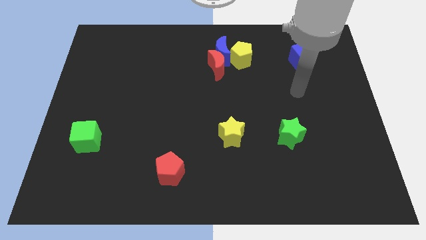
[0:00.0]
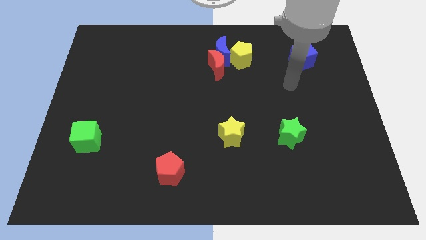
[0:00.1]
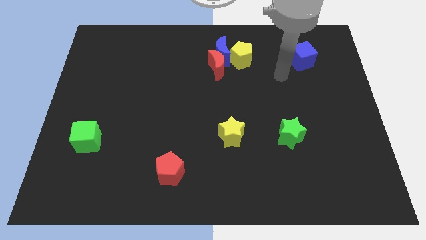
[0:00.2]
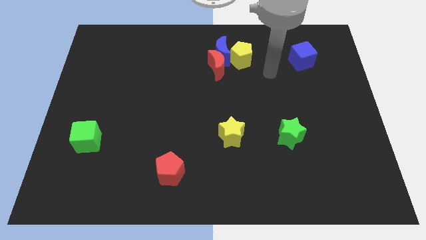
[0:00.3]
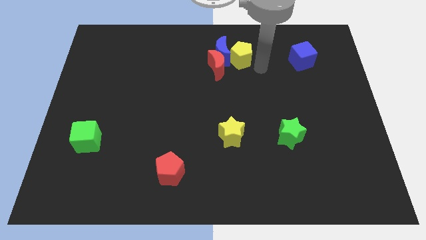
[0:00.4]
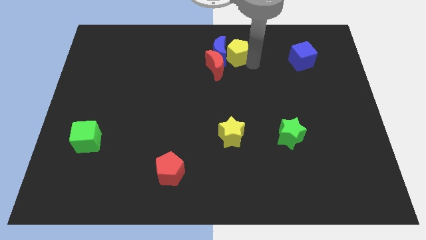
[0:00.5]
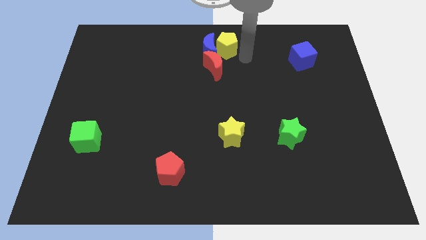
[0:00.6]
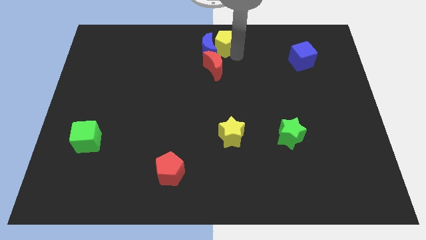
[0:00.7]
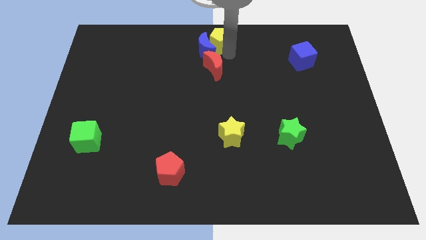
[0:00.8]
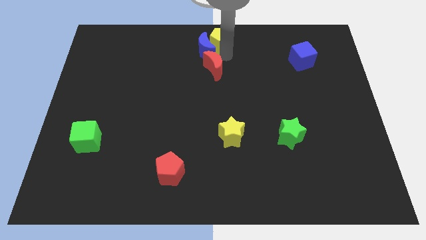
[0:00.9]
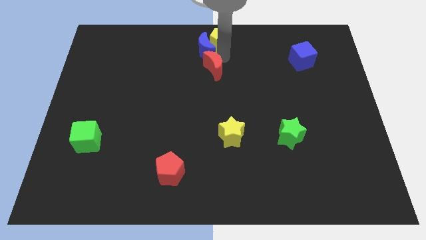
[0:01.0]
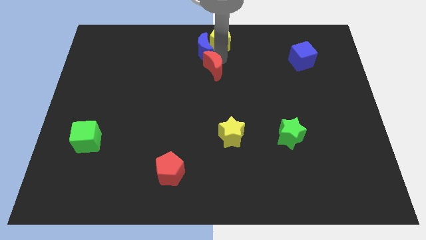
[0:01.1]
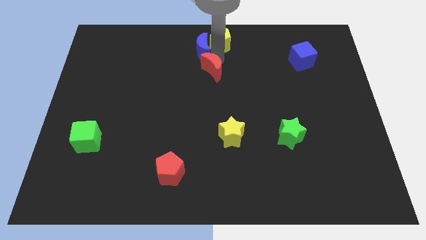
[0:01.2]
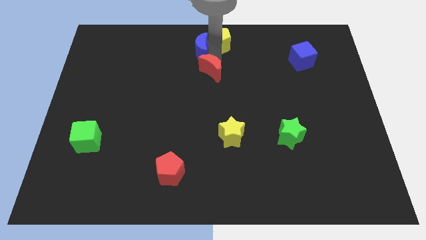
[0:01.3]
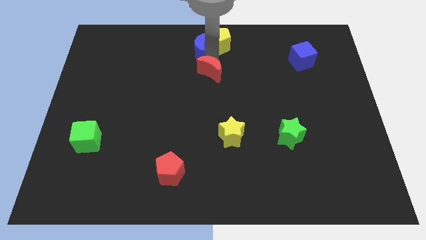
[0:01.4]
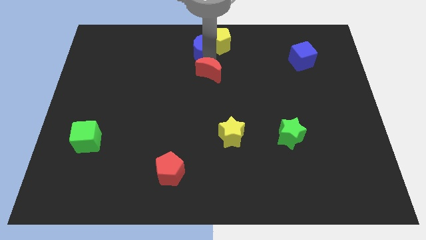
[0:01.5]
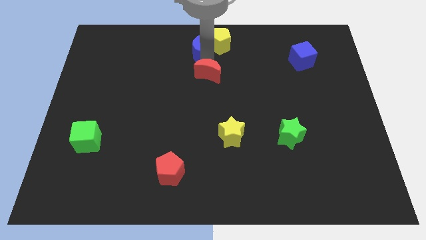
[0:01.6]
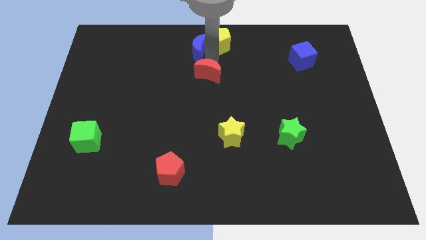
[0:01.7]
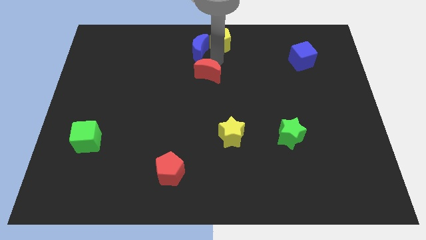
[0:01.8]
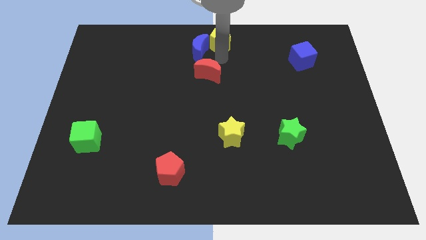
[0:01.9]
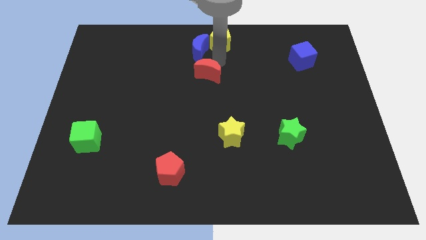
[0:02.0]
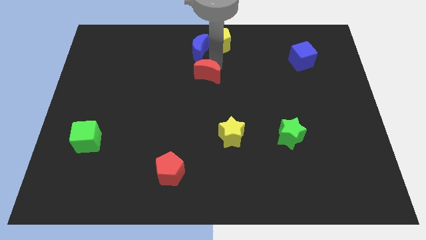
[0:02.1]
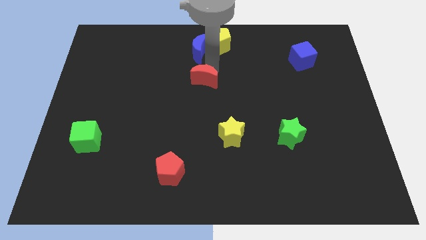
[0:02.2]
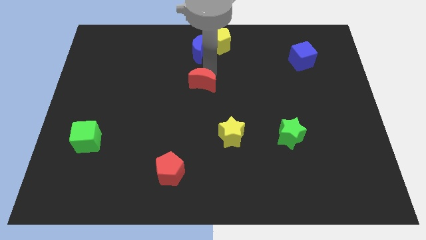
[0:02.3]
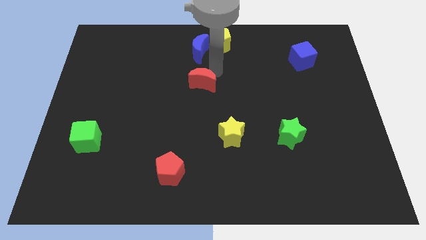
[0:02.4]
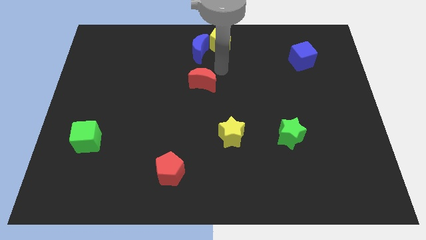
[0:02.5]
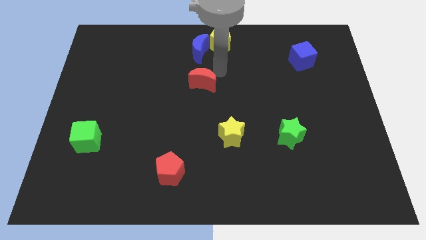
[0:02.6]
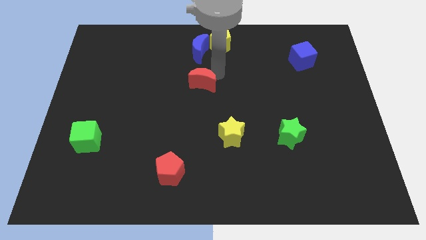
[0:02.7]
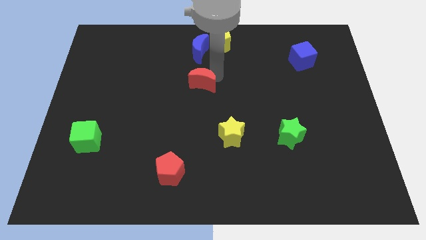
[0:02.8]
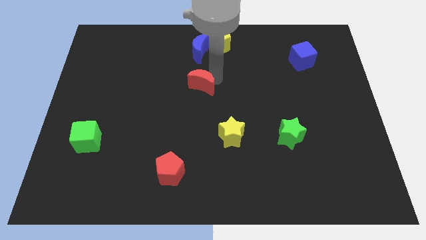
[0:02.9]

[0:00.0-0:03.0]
slightly slide the red moon down and to the left diagonally

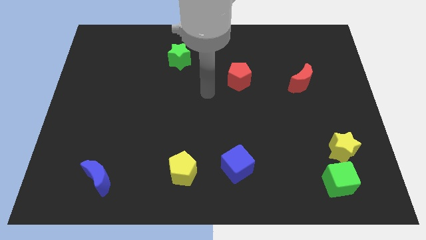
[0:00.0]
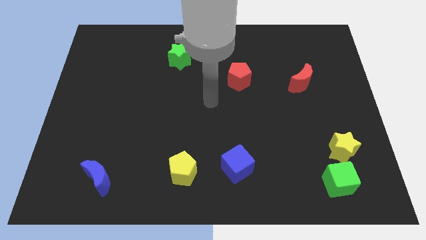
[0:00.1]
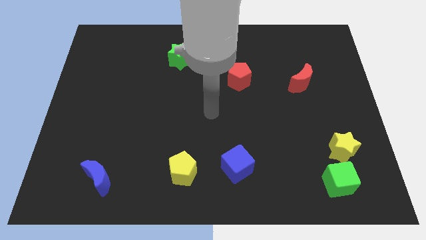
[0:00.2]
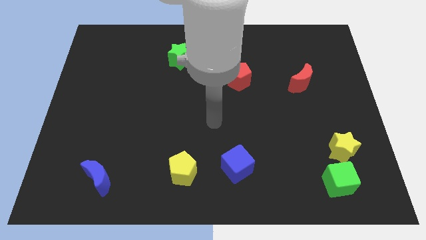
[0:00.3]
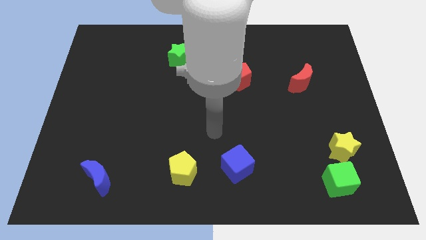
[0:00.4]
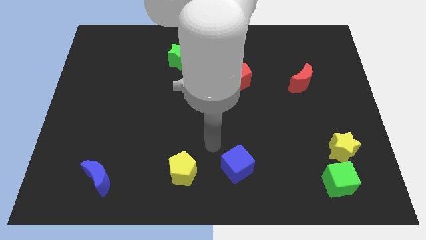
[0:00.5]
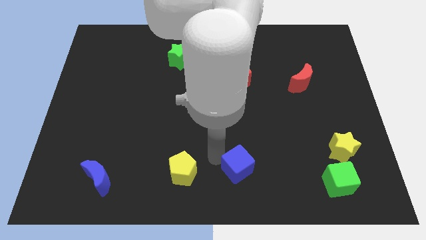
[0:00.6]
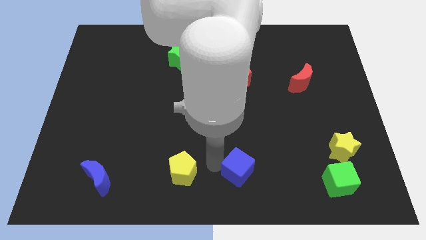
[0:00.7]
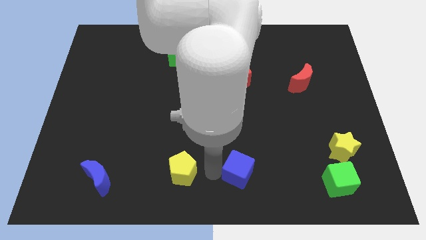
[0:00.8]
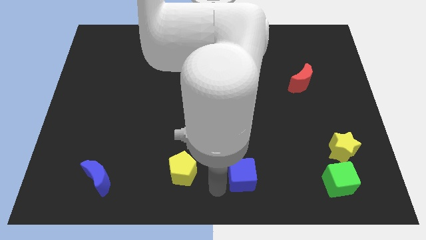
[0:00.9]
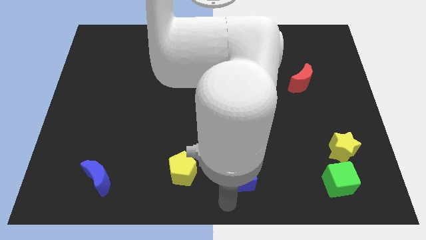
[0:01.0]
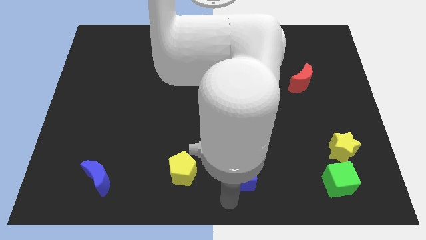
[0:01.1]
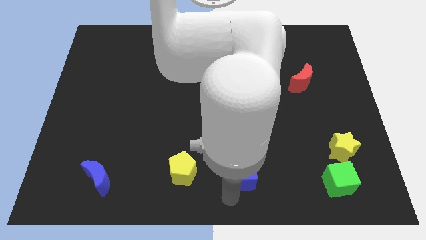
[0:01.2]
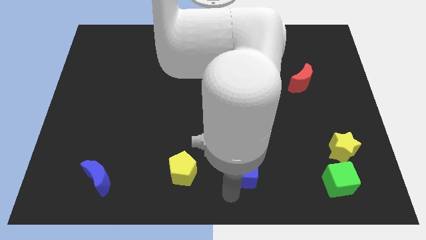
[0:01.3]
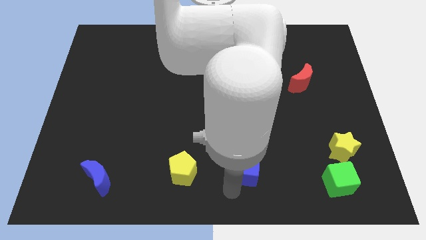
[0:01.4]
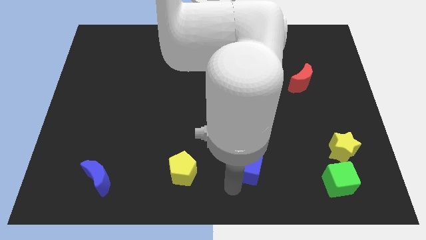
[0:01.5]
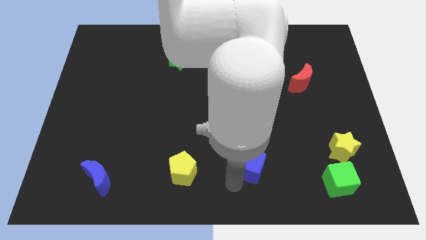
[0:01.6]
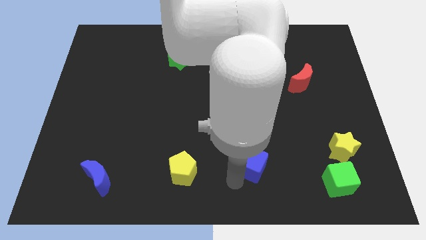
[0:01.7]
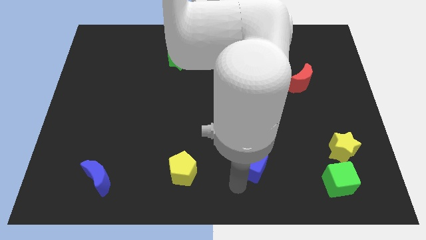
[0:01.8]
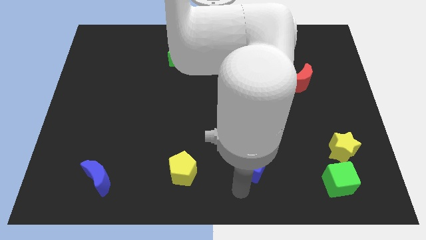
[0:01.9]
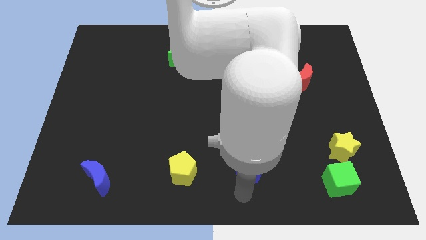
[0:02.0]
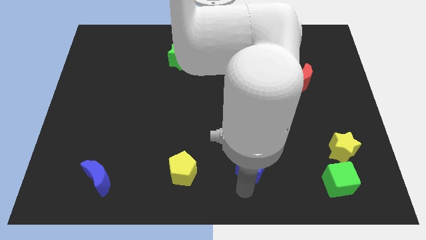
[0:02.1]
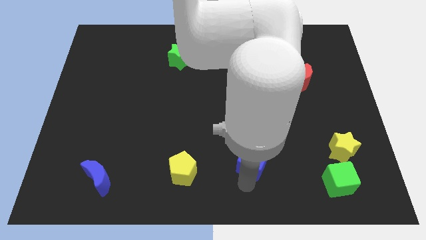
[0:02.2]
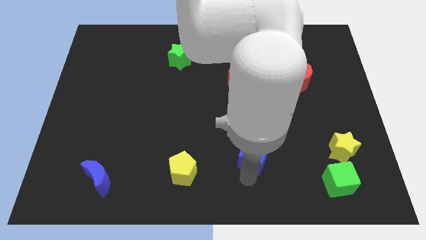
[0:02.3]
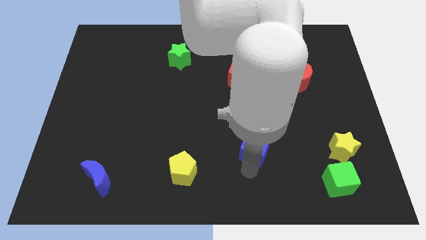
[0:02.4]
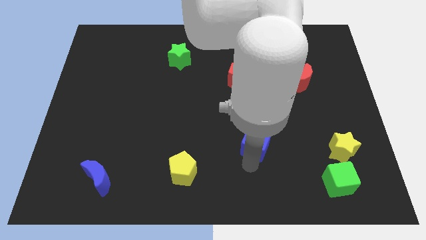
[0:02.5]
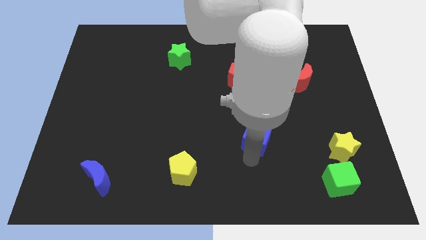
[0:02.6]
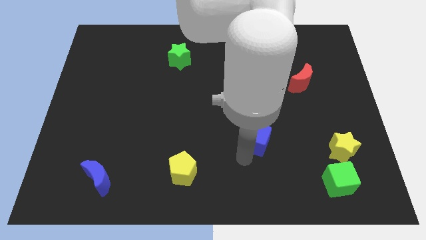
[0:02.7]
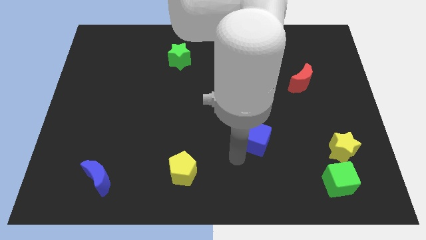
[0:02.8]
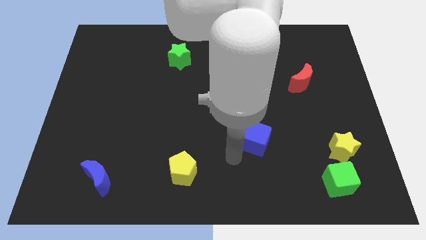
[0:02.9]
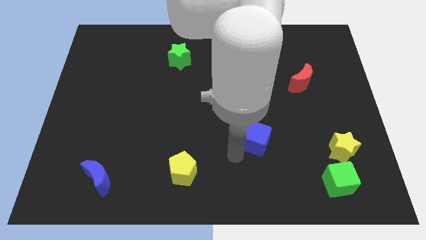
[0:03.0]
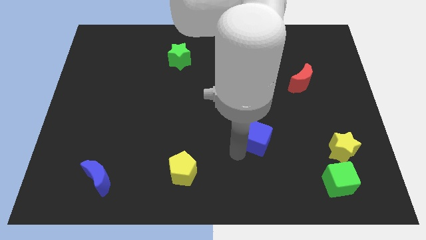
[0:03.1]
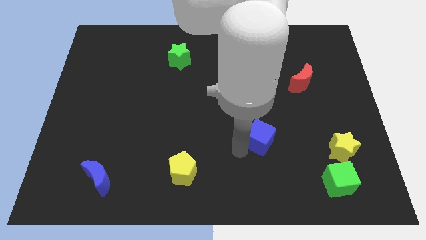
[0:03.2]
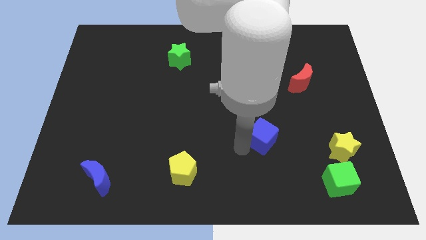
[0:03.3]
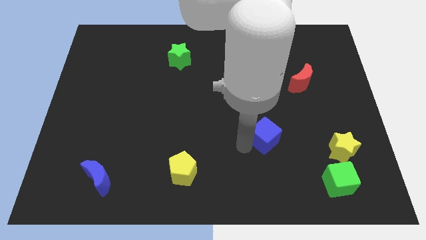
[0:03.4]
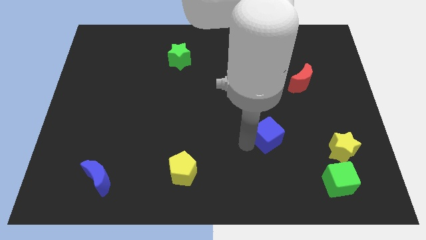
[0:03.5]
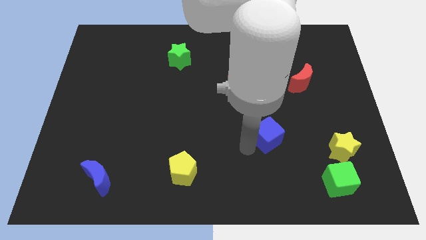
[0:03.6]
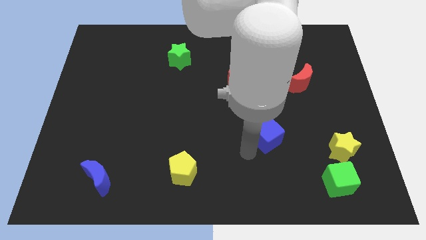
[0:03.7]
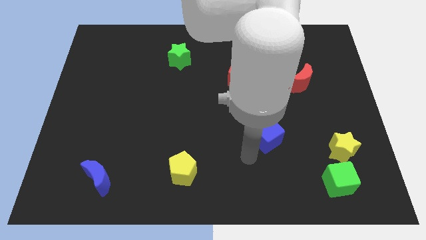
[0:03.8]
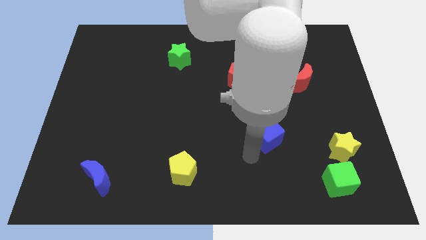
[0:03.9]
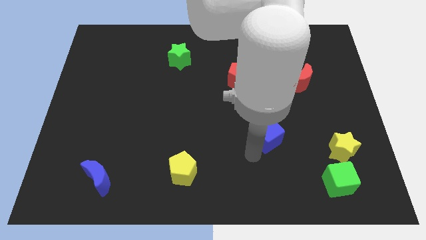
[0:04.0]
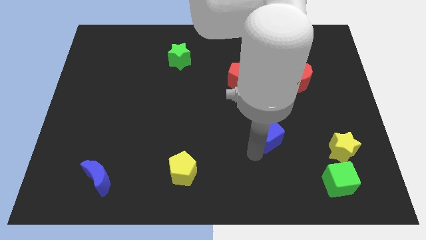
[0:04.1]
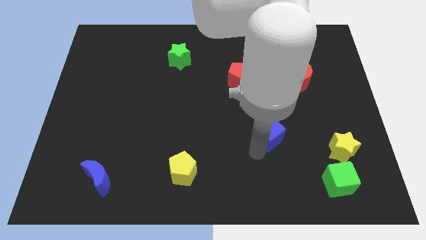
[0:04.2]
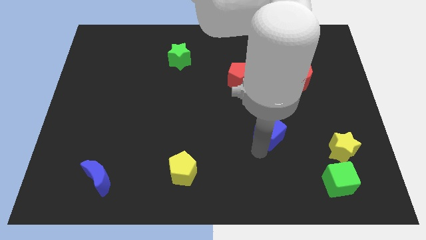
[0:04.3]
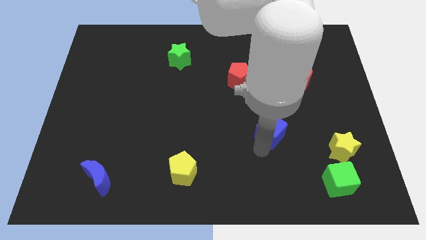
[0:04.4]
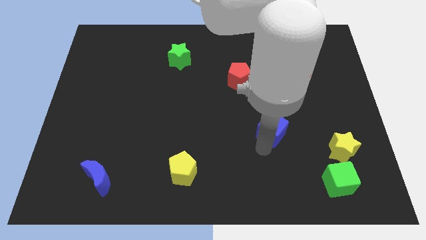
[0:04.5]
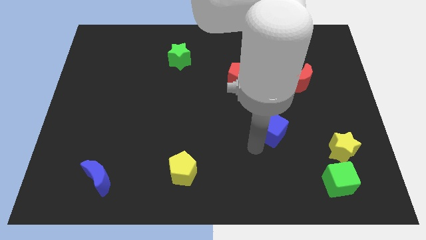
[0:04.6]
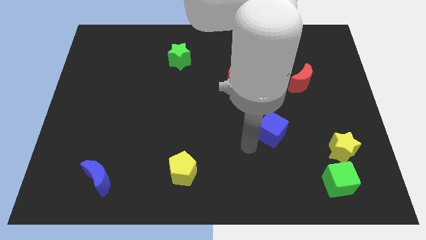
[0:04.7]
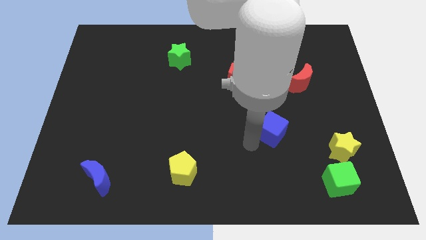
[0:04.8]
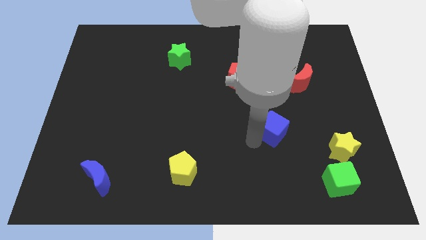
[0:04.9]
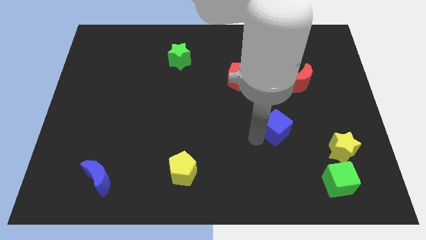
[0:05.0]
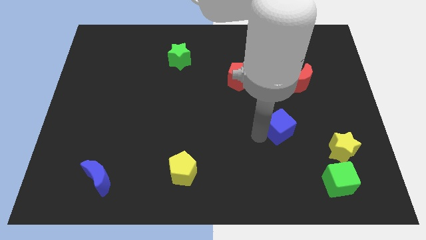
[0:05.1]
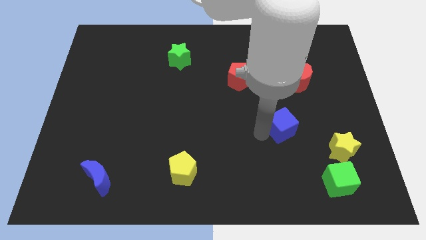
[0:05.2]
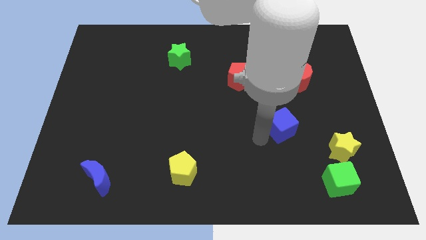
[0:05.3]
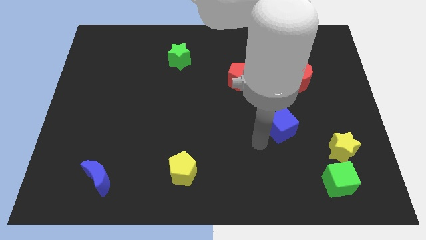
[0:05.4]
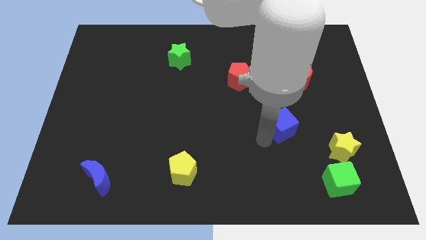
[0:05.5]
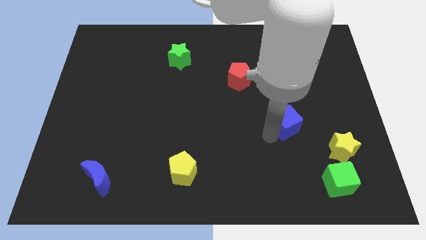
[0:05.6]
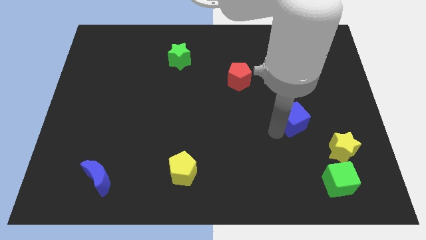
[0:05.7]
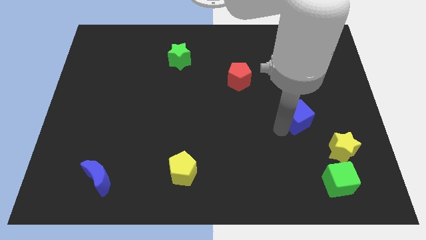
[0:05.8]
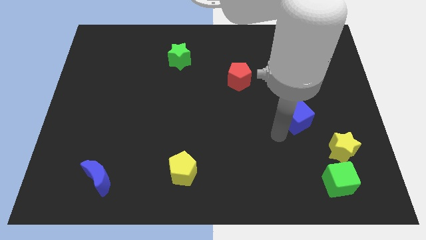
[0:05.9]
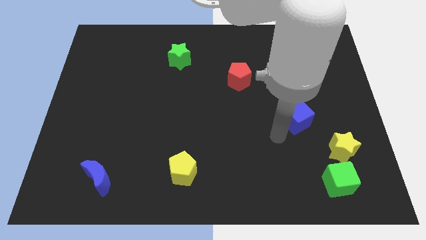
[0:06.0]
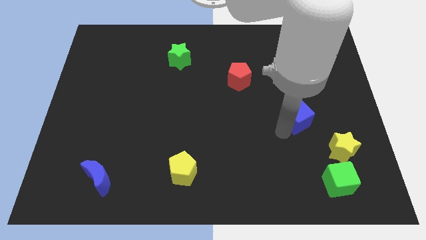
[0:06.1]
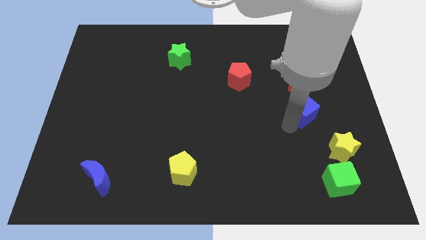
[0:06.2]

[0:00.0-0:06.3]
push the blue cube diagonally up and to the right
